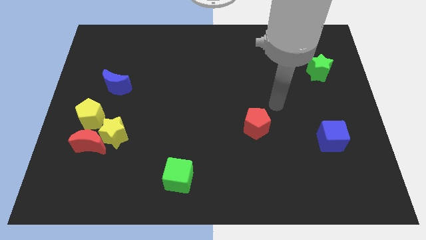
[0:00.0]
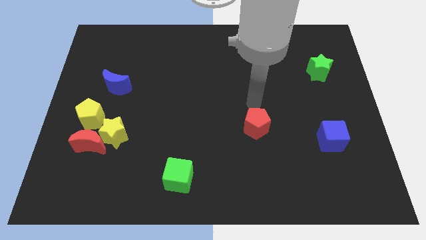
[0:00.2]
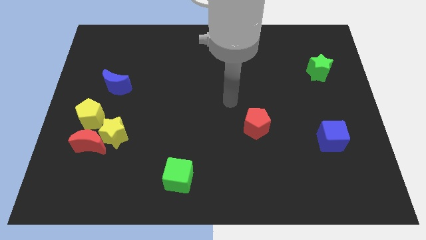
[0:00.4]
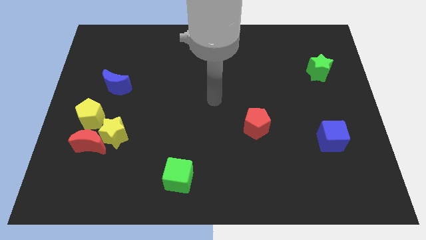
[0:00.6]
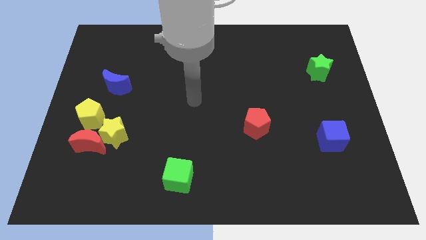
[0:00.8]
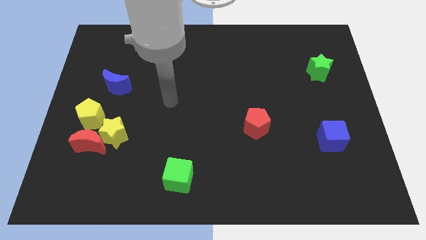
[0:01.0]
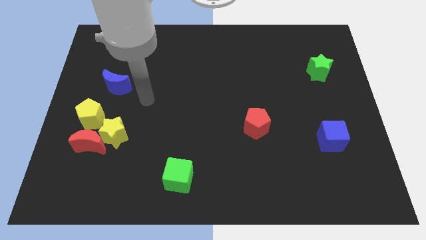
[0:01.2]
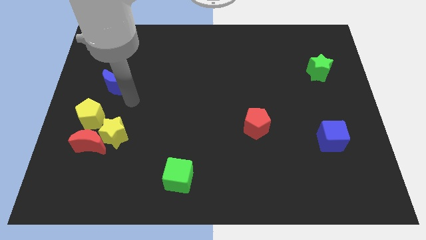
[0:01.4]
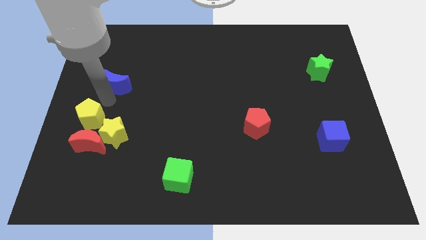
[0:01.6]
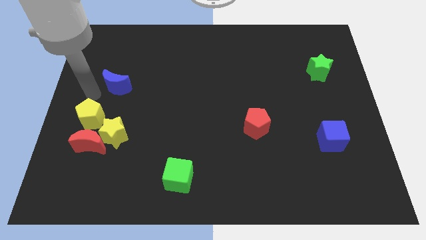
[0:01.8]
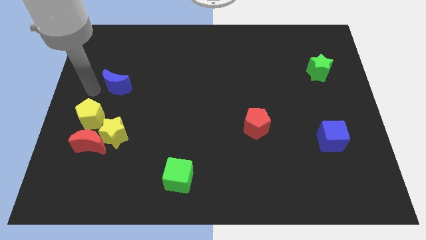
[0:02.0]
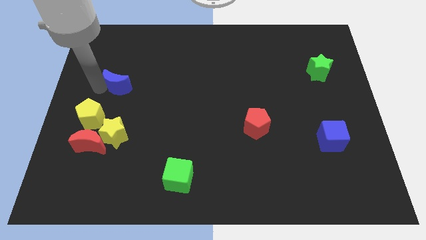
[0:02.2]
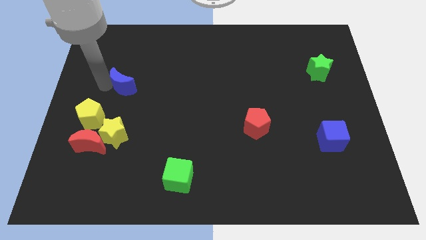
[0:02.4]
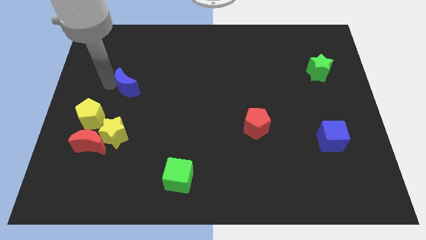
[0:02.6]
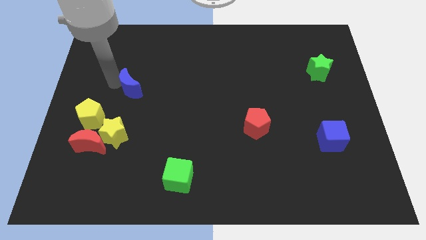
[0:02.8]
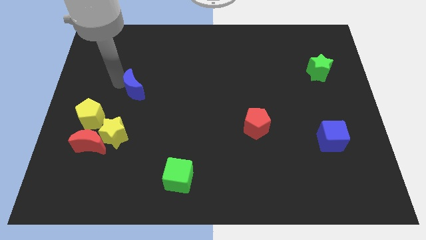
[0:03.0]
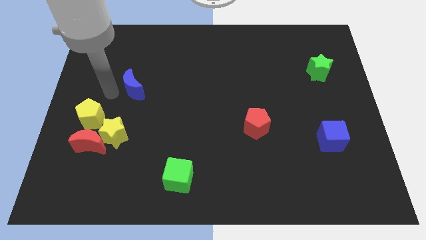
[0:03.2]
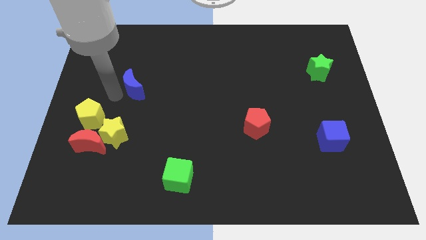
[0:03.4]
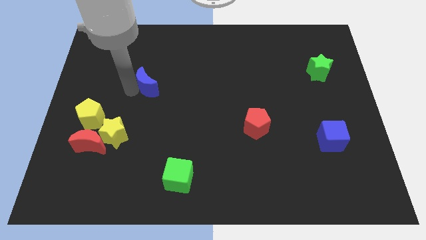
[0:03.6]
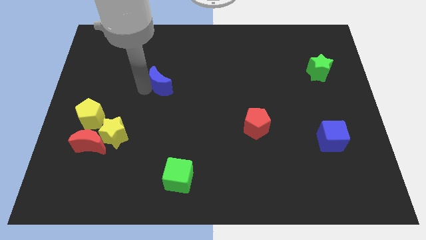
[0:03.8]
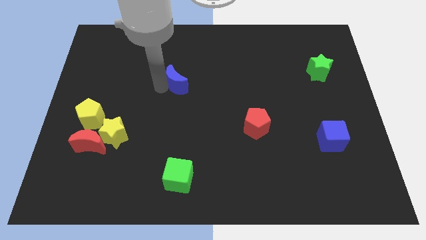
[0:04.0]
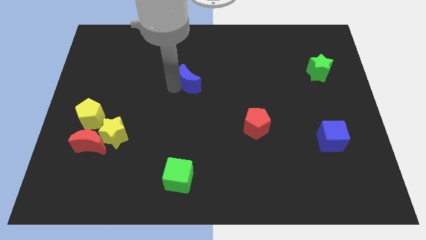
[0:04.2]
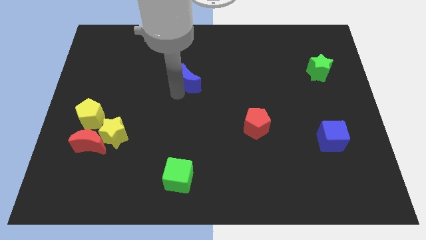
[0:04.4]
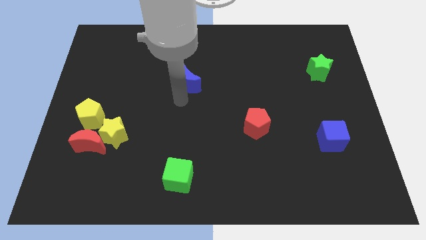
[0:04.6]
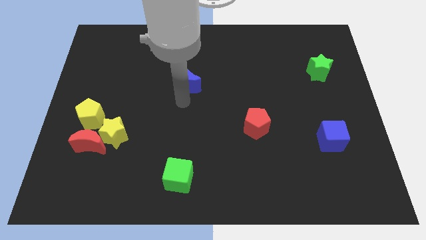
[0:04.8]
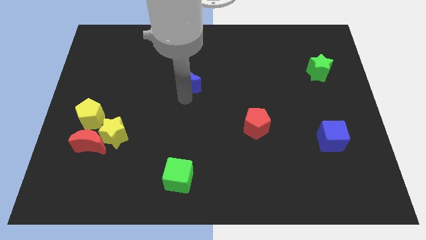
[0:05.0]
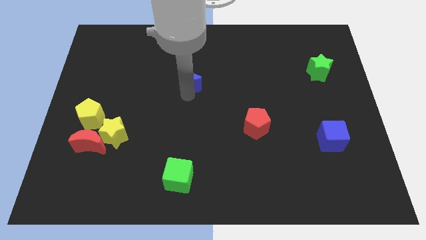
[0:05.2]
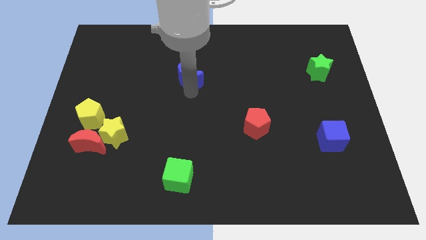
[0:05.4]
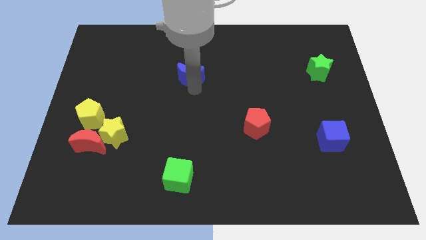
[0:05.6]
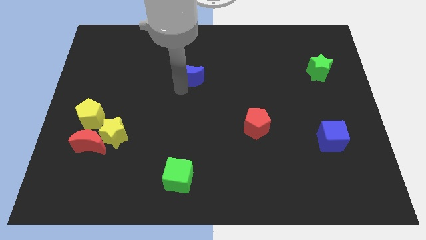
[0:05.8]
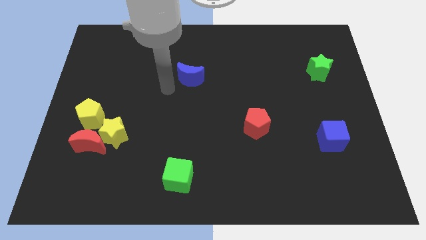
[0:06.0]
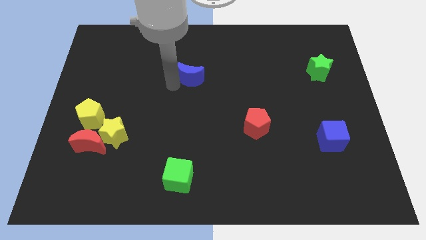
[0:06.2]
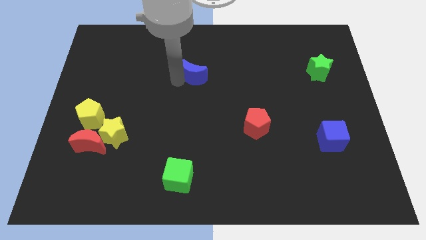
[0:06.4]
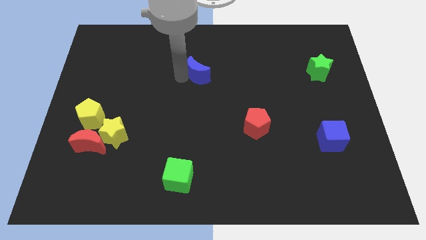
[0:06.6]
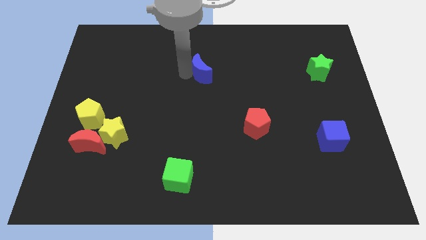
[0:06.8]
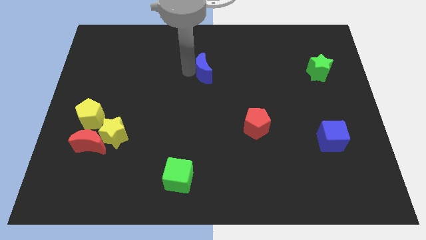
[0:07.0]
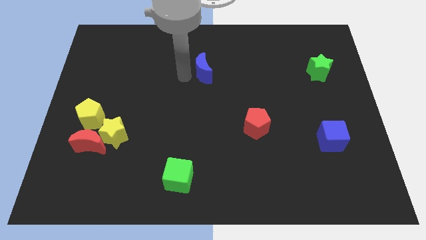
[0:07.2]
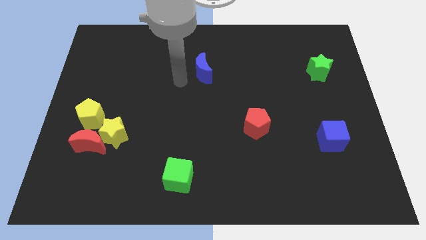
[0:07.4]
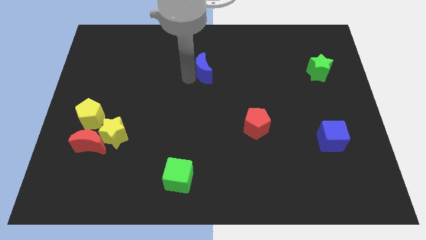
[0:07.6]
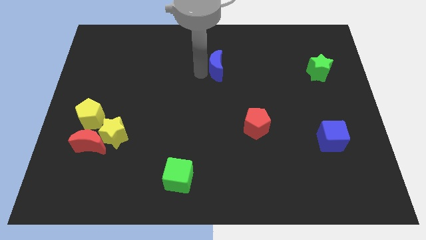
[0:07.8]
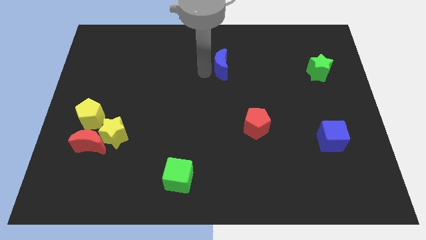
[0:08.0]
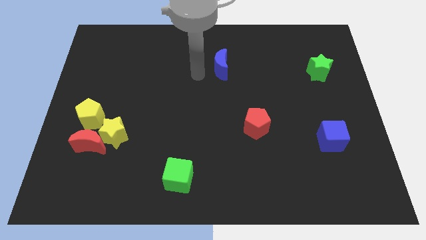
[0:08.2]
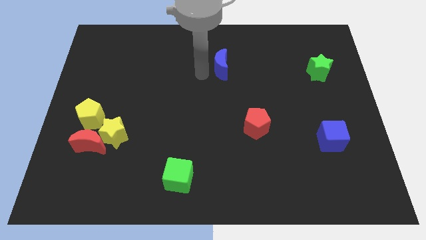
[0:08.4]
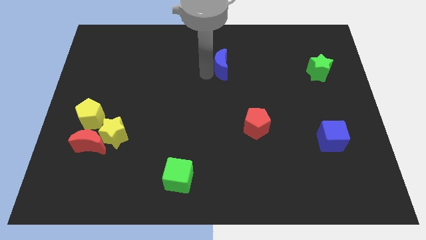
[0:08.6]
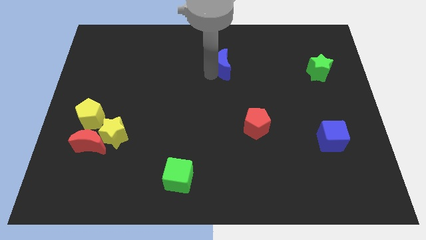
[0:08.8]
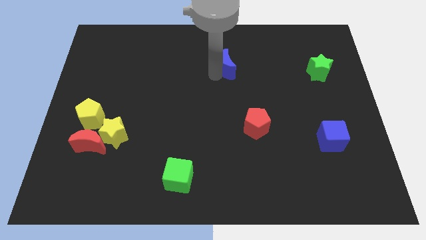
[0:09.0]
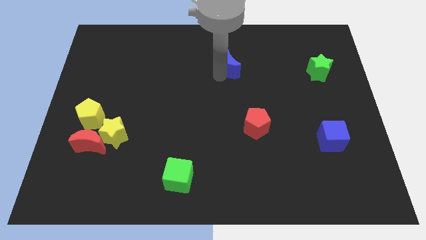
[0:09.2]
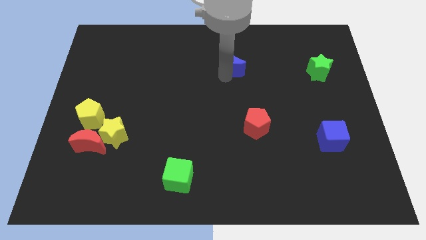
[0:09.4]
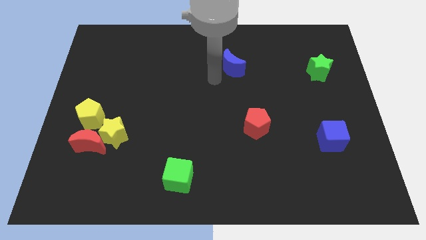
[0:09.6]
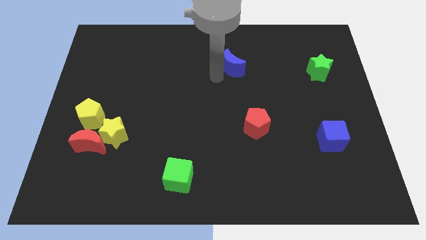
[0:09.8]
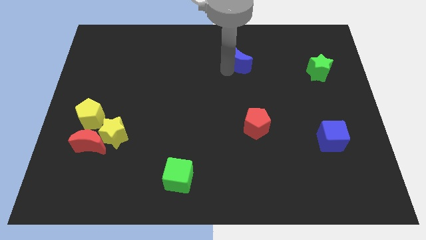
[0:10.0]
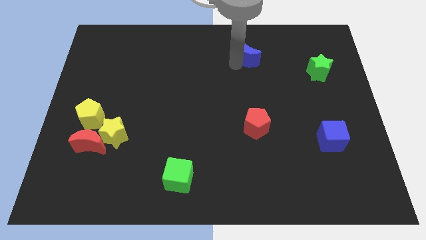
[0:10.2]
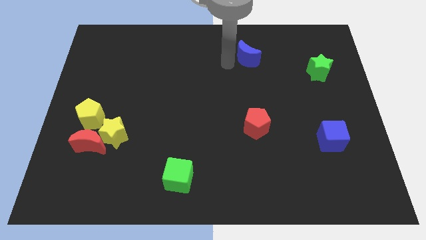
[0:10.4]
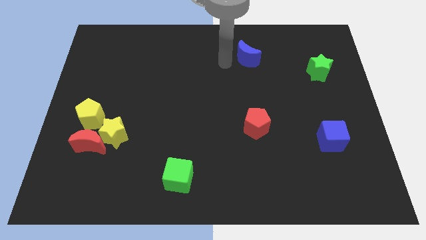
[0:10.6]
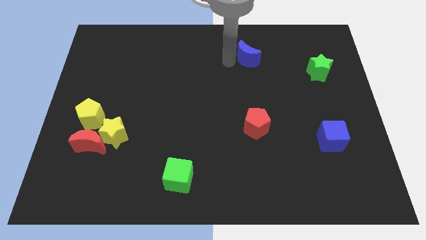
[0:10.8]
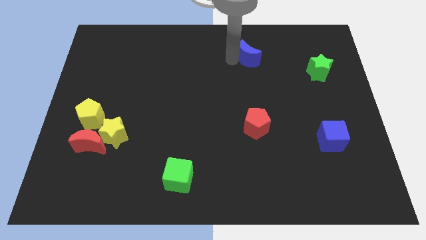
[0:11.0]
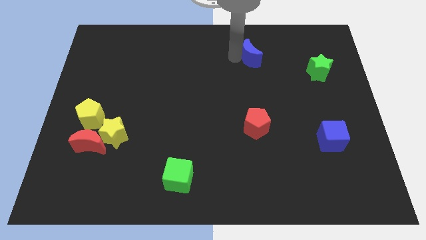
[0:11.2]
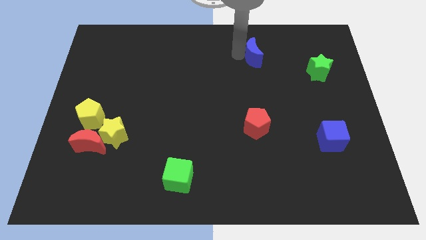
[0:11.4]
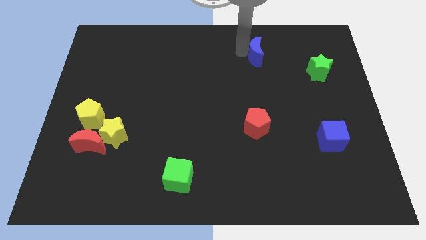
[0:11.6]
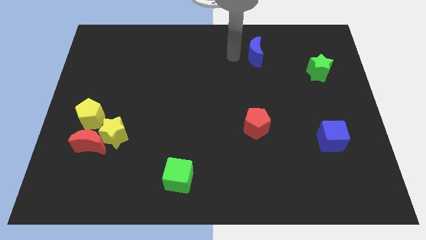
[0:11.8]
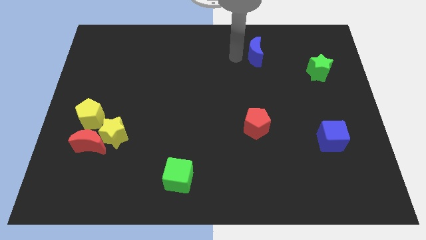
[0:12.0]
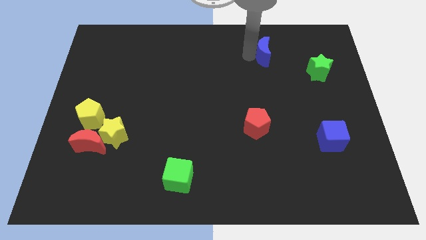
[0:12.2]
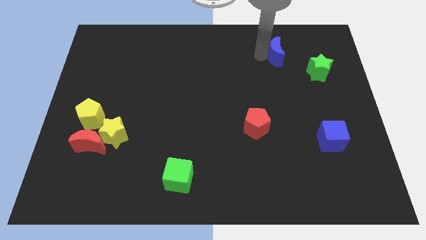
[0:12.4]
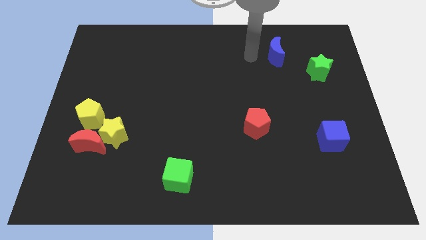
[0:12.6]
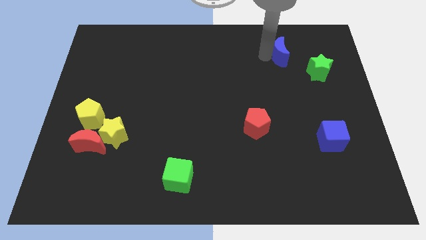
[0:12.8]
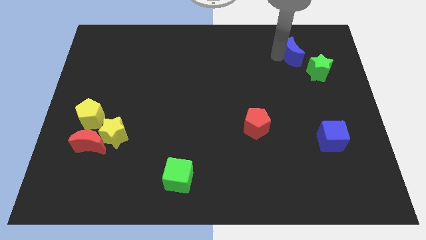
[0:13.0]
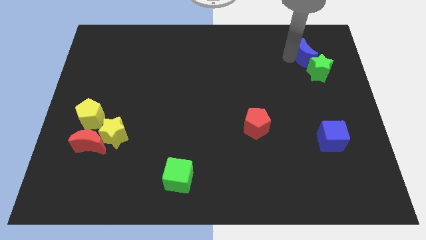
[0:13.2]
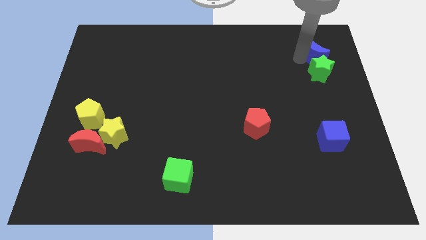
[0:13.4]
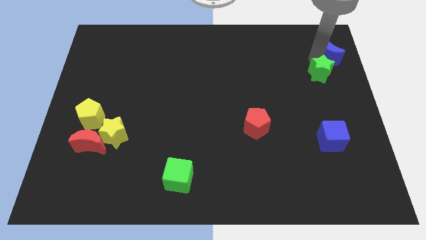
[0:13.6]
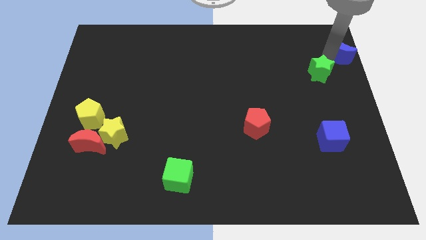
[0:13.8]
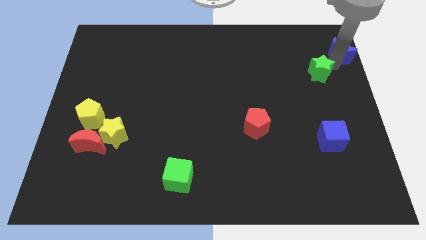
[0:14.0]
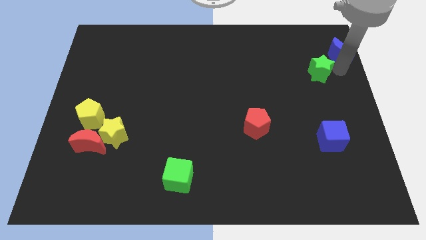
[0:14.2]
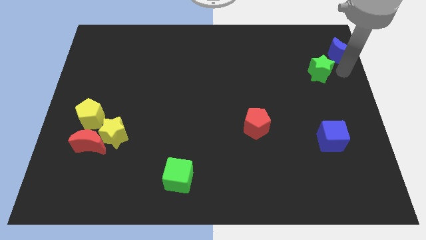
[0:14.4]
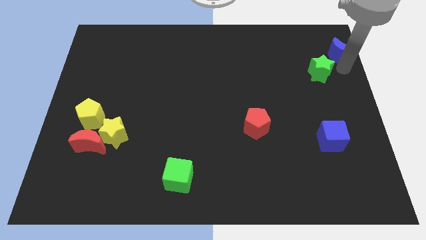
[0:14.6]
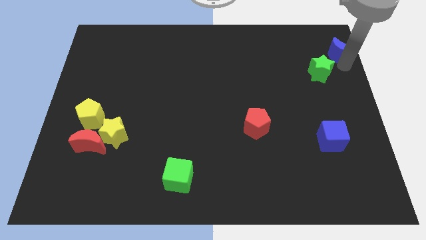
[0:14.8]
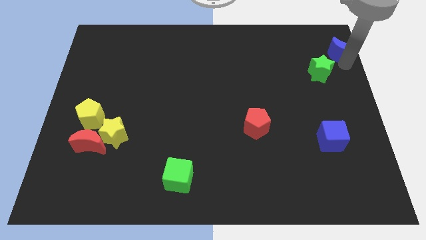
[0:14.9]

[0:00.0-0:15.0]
move the blue moon to the upper right corner
